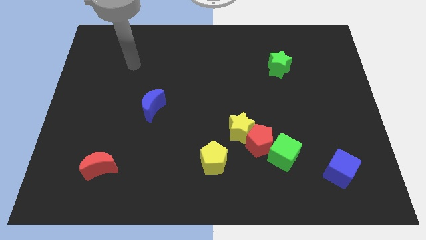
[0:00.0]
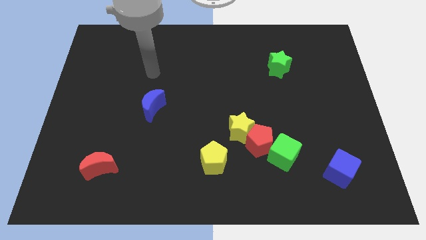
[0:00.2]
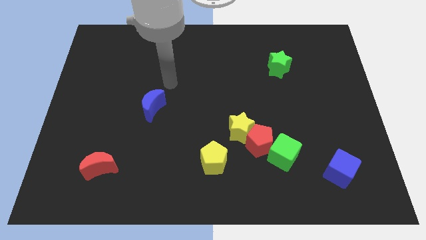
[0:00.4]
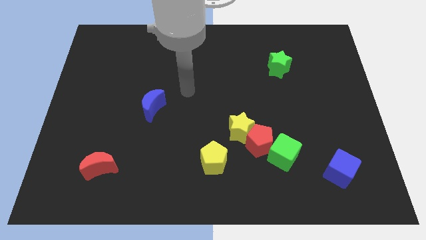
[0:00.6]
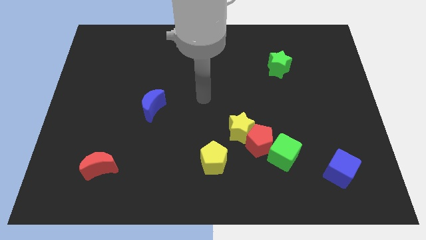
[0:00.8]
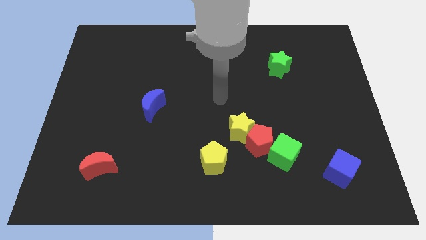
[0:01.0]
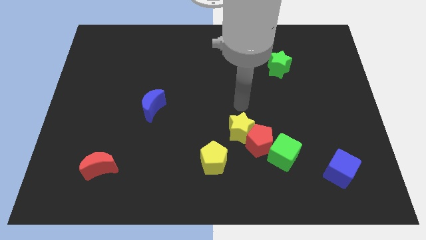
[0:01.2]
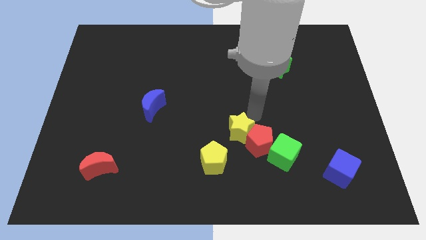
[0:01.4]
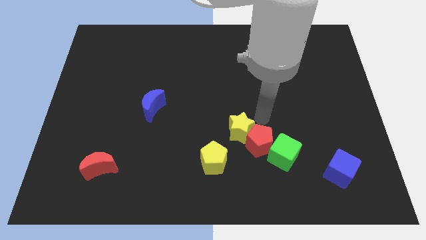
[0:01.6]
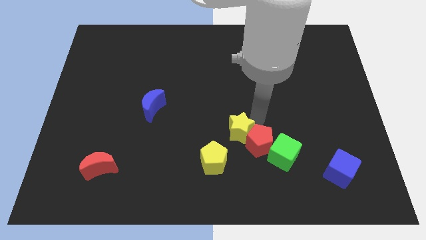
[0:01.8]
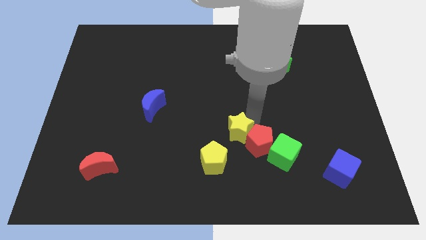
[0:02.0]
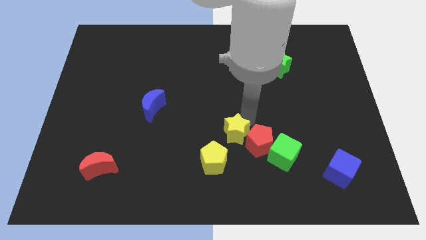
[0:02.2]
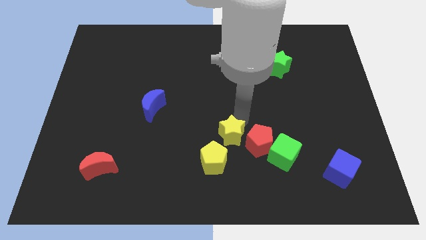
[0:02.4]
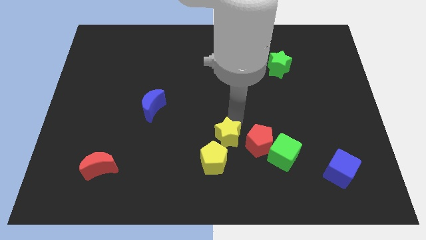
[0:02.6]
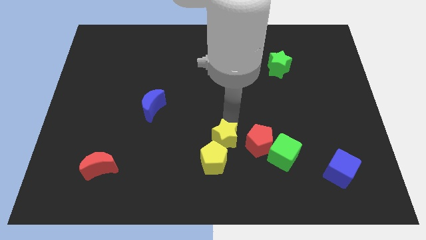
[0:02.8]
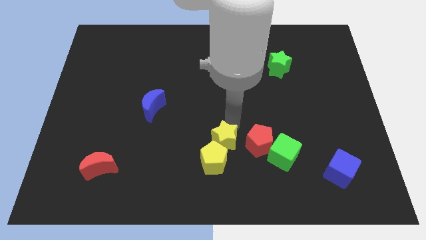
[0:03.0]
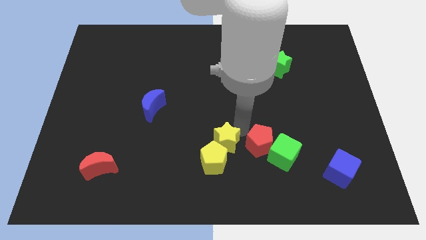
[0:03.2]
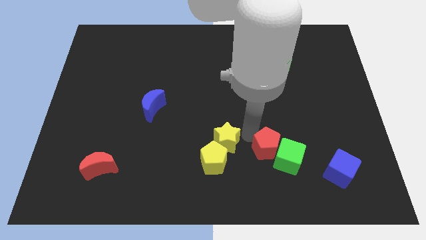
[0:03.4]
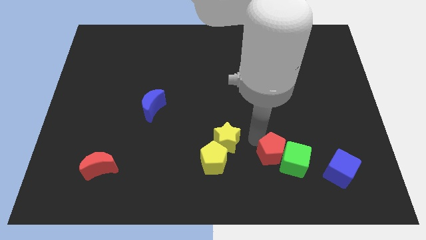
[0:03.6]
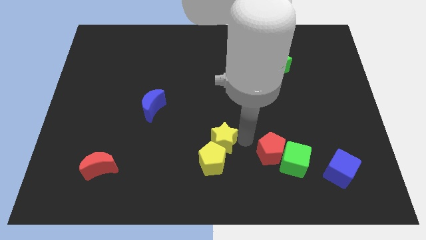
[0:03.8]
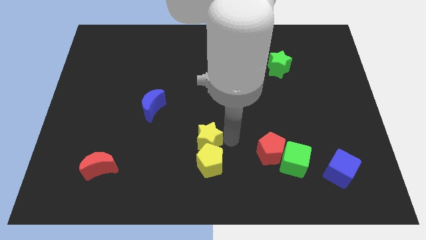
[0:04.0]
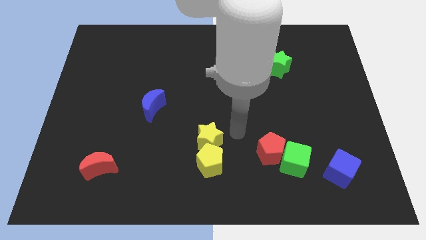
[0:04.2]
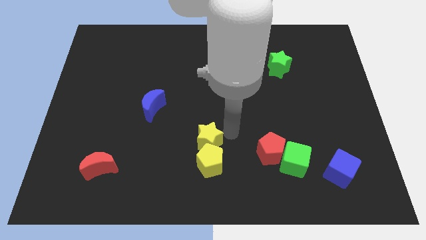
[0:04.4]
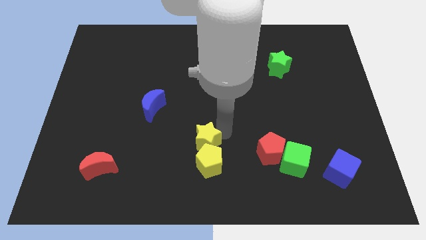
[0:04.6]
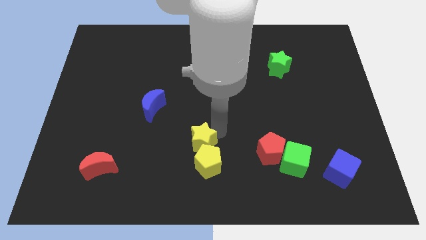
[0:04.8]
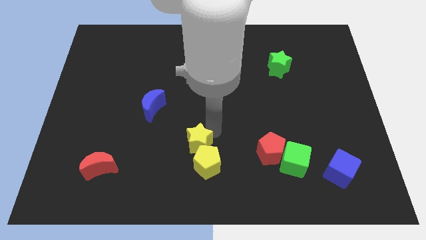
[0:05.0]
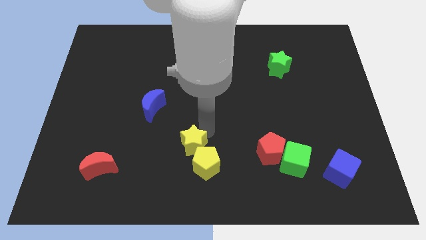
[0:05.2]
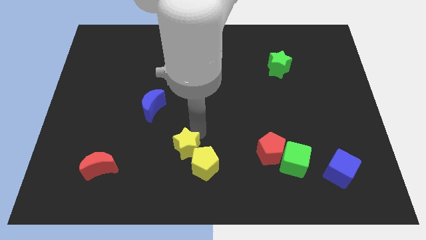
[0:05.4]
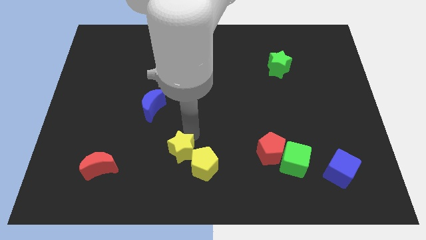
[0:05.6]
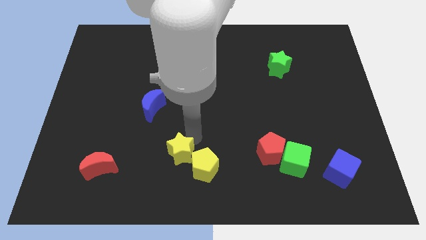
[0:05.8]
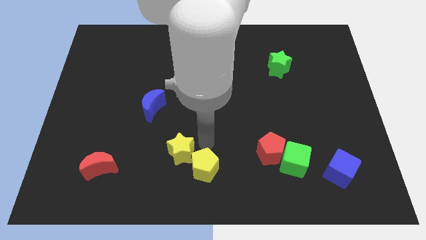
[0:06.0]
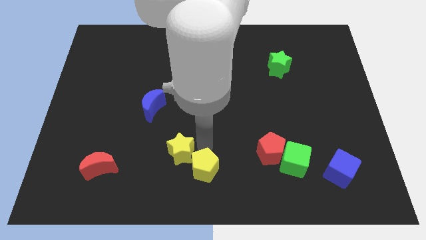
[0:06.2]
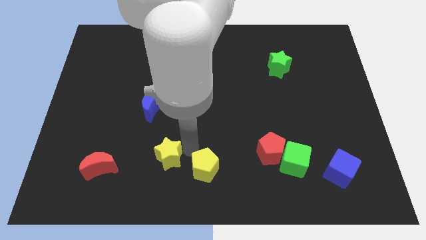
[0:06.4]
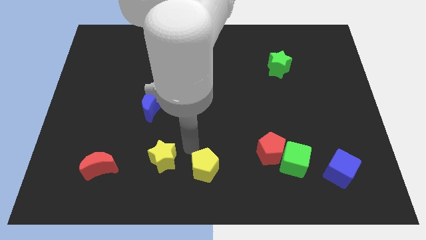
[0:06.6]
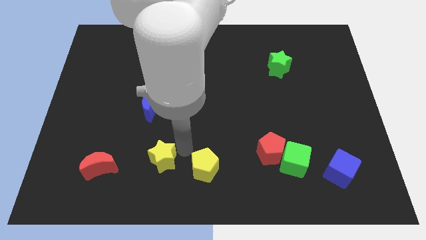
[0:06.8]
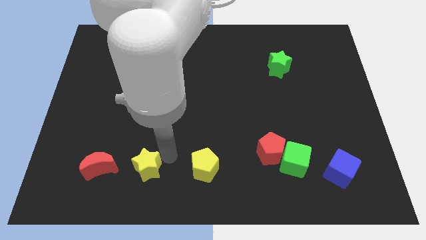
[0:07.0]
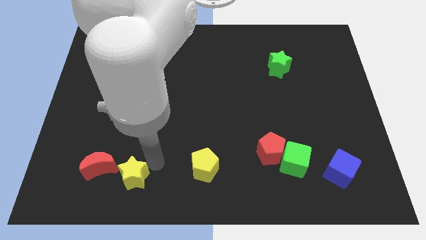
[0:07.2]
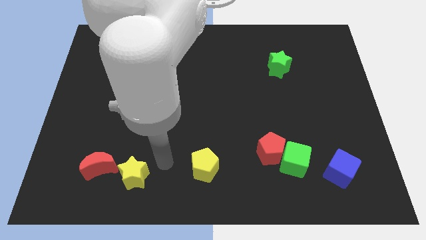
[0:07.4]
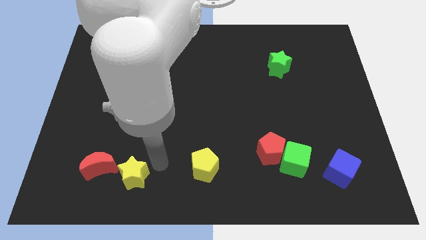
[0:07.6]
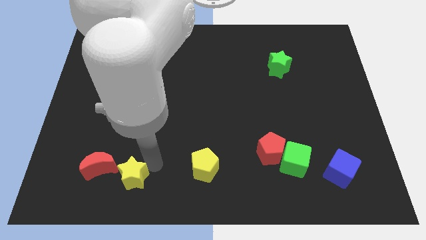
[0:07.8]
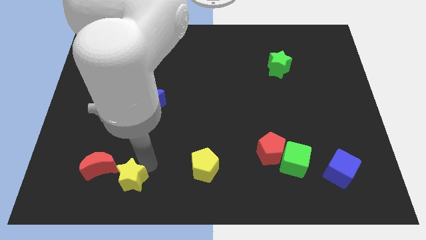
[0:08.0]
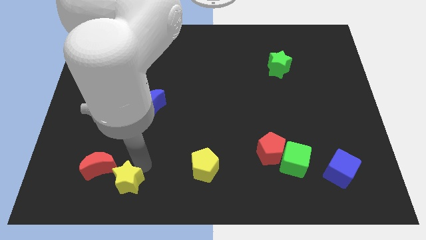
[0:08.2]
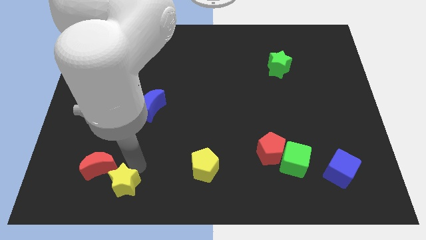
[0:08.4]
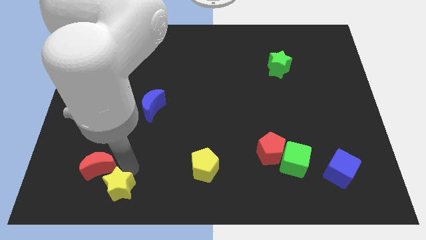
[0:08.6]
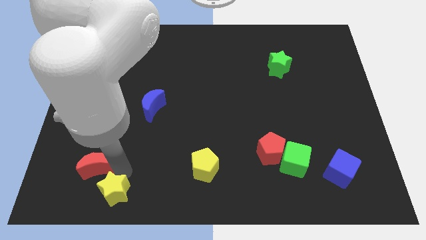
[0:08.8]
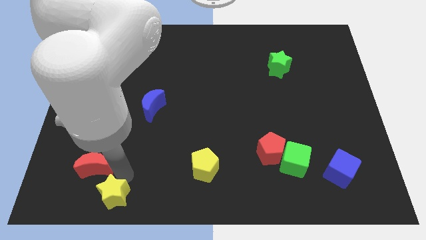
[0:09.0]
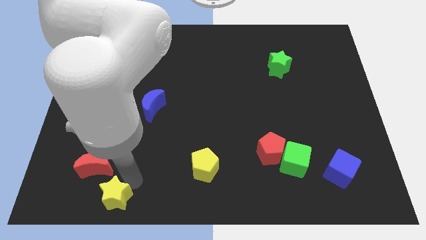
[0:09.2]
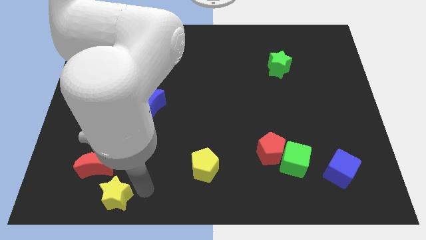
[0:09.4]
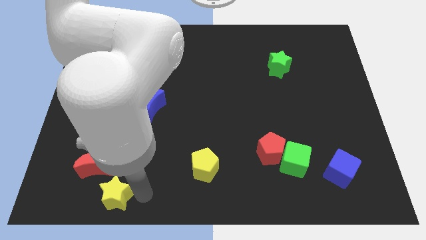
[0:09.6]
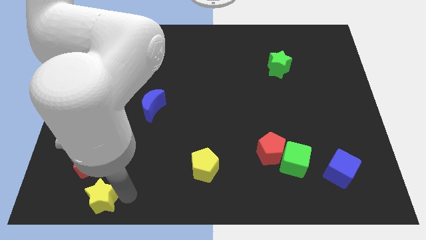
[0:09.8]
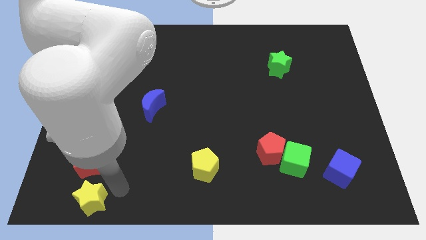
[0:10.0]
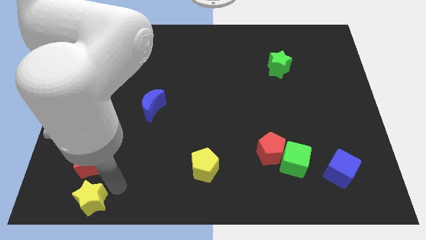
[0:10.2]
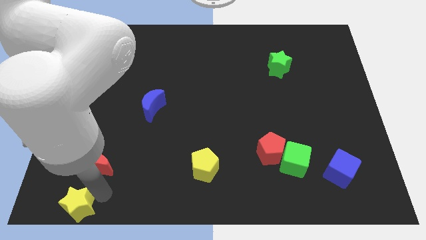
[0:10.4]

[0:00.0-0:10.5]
slide the yellow star to the bottom left of the board

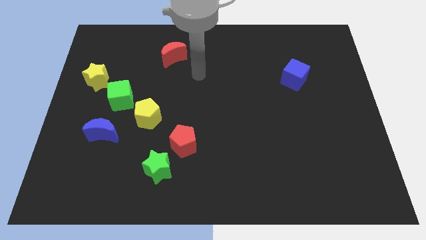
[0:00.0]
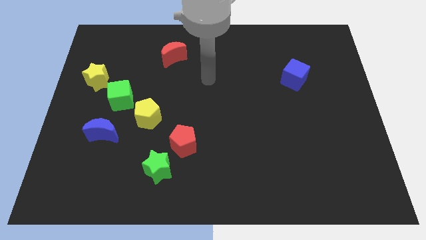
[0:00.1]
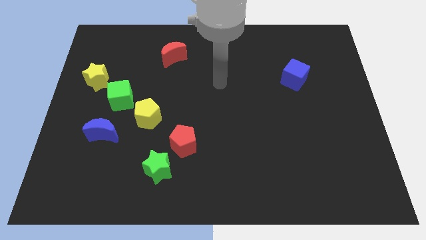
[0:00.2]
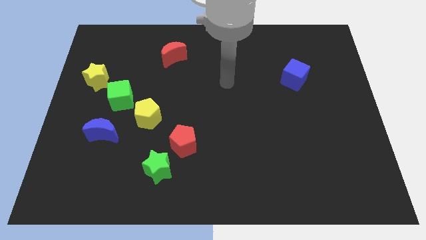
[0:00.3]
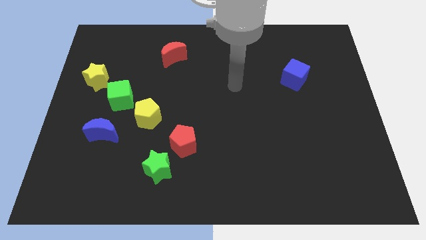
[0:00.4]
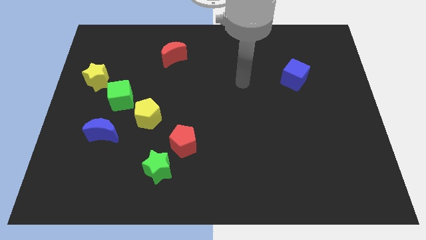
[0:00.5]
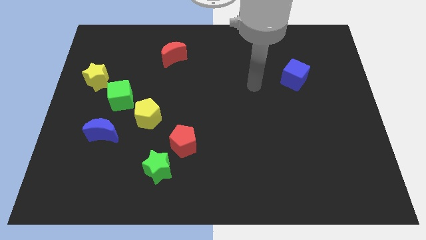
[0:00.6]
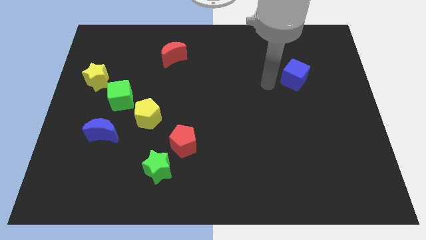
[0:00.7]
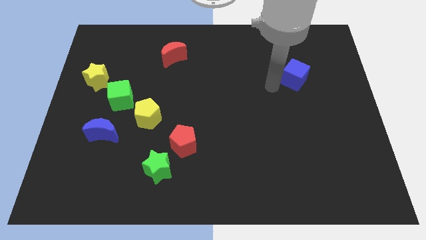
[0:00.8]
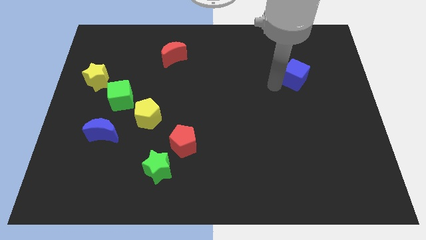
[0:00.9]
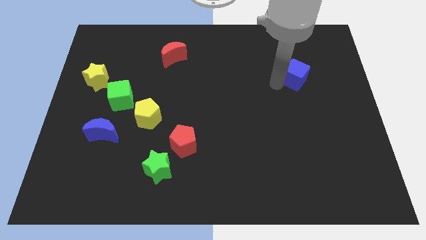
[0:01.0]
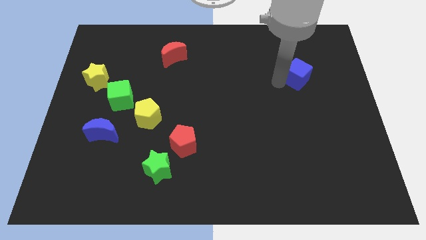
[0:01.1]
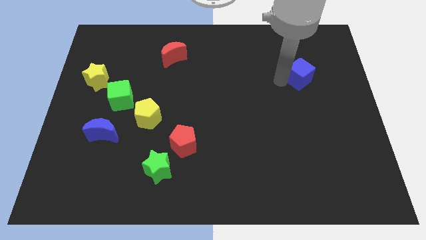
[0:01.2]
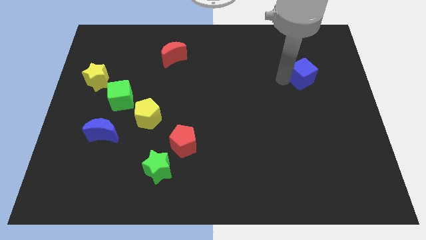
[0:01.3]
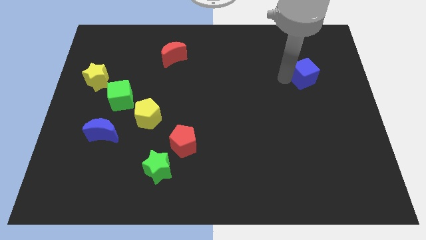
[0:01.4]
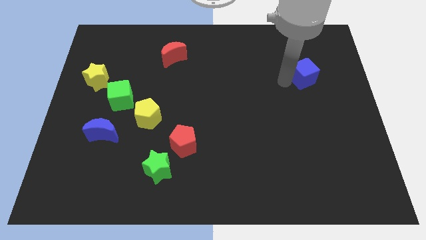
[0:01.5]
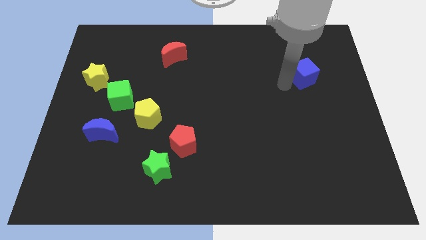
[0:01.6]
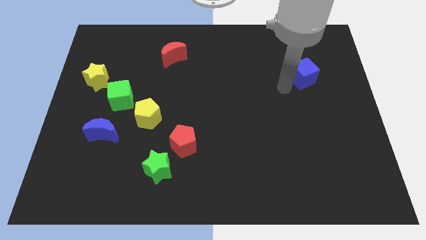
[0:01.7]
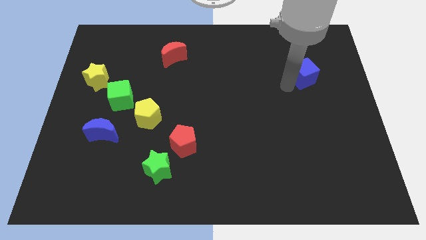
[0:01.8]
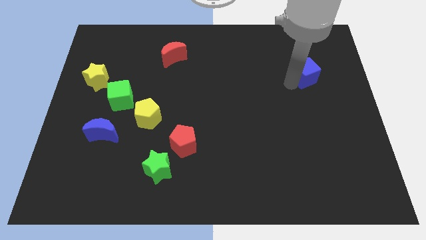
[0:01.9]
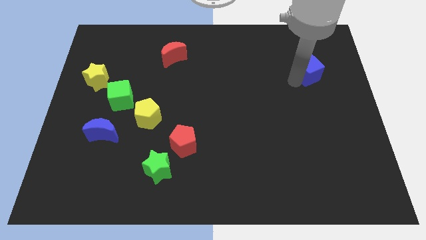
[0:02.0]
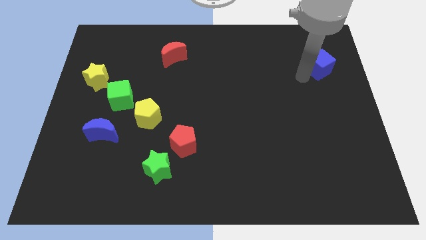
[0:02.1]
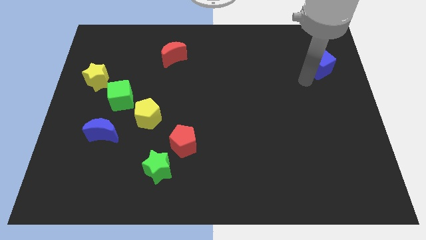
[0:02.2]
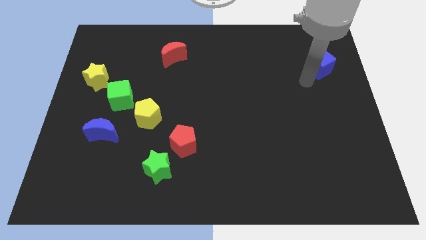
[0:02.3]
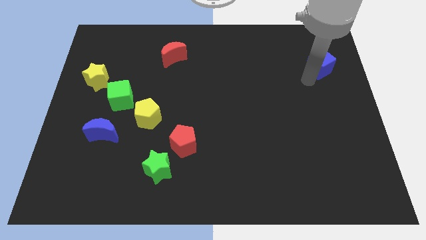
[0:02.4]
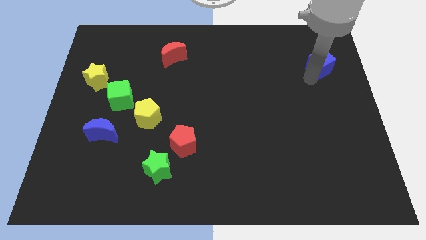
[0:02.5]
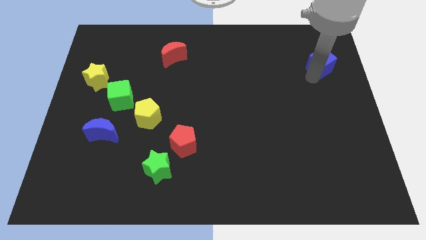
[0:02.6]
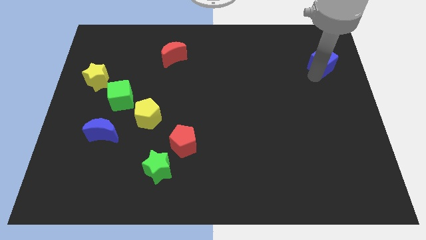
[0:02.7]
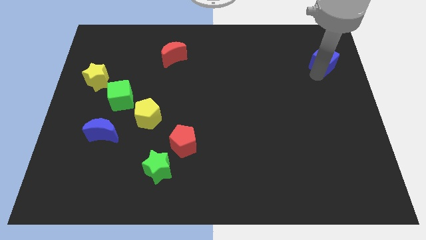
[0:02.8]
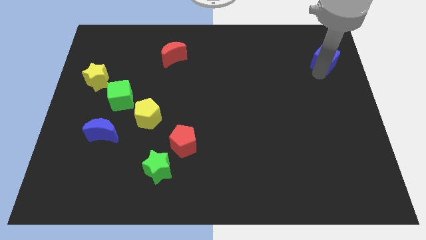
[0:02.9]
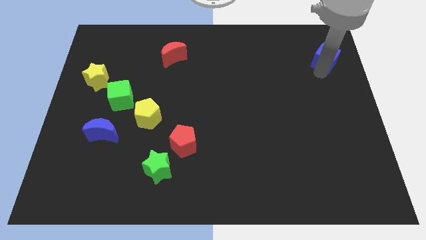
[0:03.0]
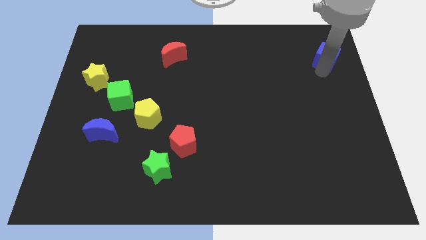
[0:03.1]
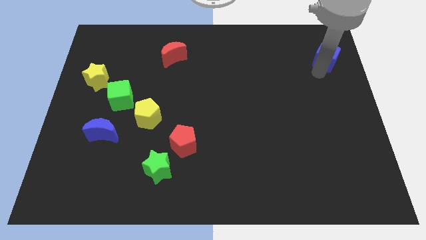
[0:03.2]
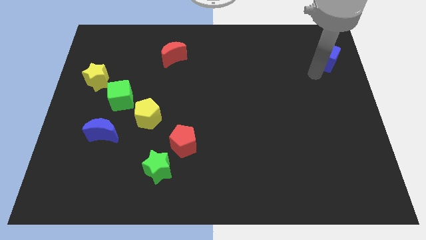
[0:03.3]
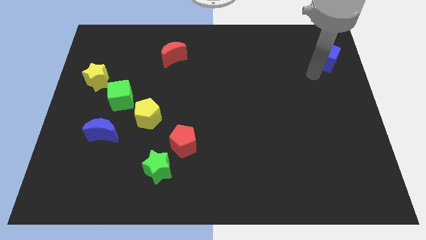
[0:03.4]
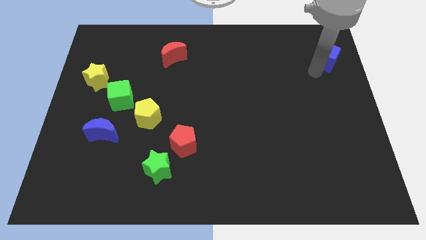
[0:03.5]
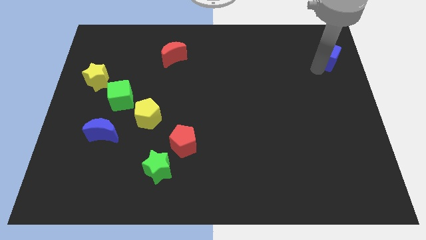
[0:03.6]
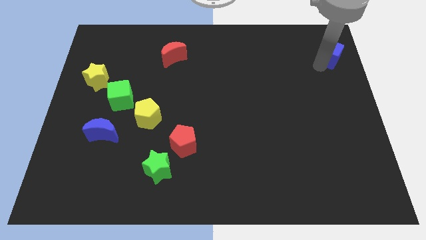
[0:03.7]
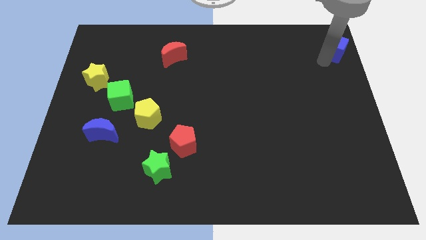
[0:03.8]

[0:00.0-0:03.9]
put the blue cube to the top right
